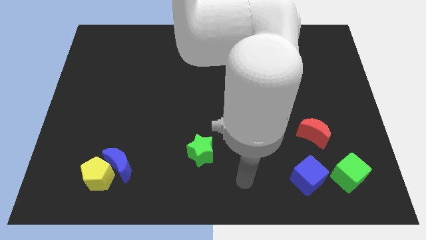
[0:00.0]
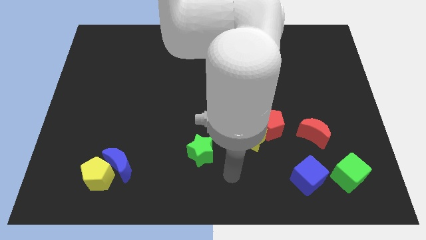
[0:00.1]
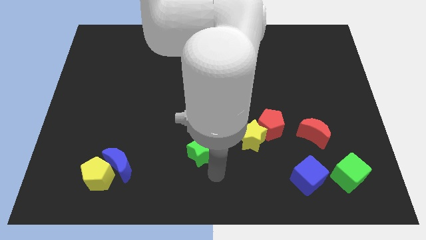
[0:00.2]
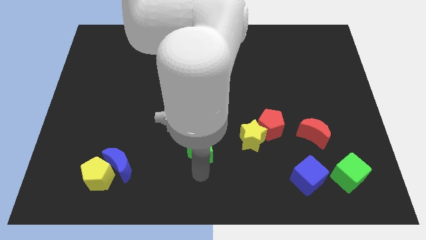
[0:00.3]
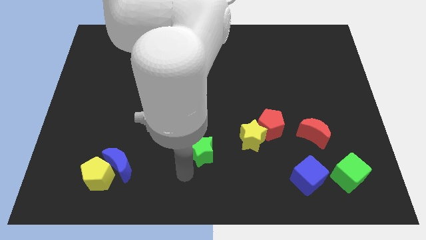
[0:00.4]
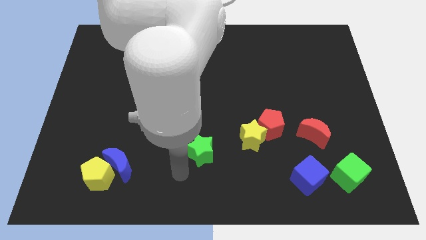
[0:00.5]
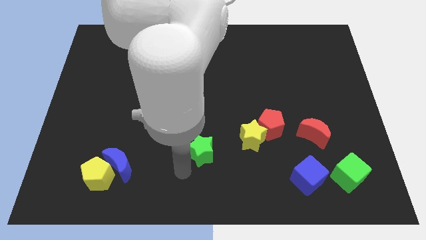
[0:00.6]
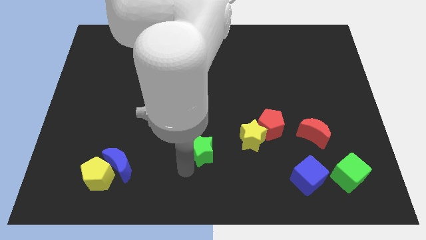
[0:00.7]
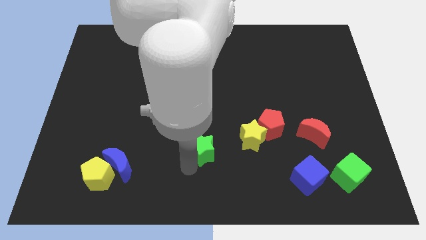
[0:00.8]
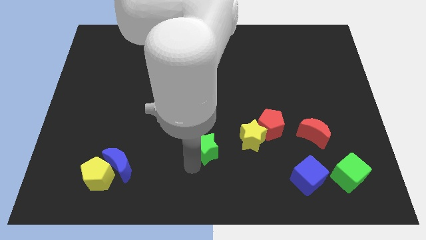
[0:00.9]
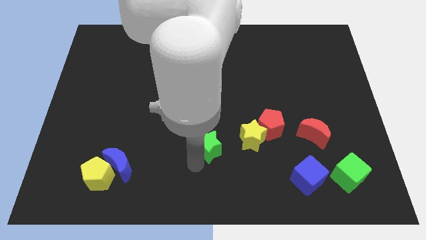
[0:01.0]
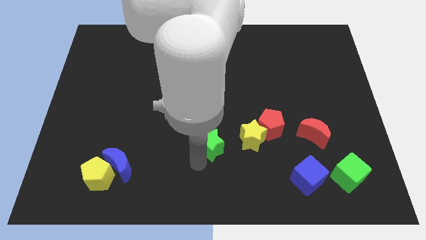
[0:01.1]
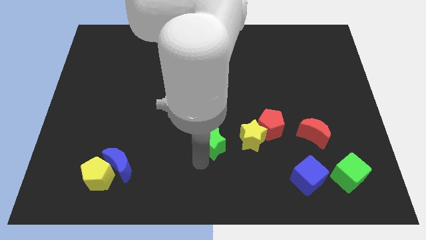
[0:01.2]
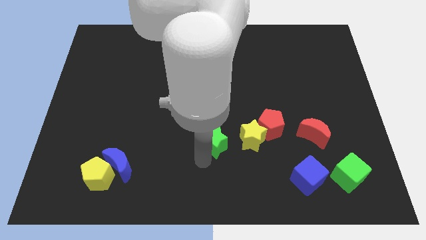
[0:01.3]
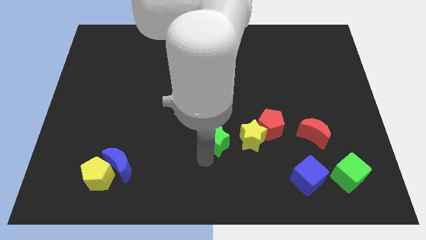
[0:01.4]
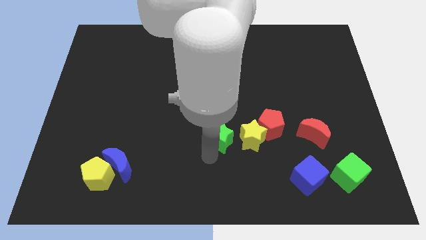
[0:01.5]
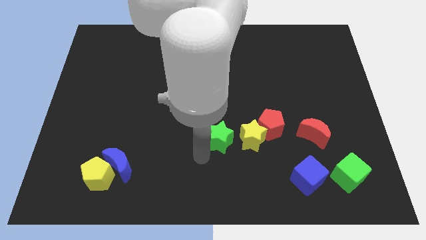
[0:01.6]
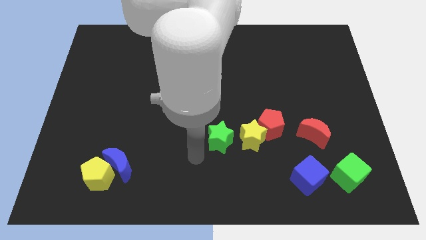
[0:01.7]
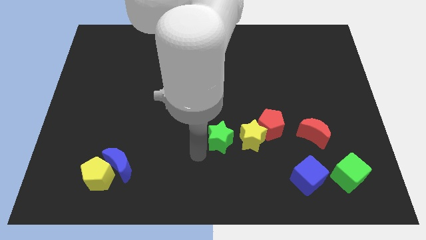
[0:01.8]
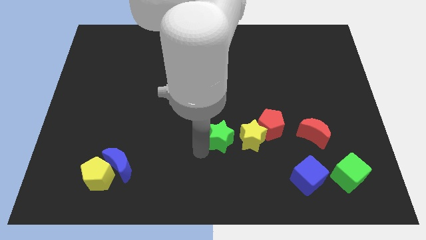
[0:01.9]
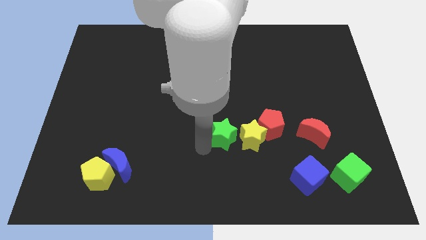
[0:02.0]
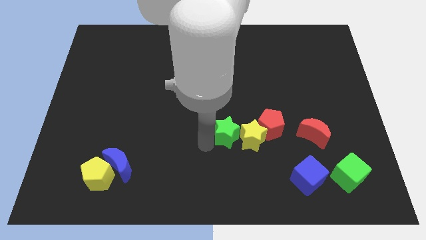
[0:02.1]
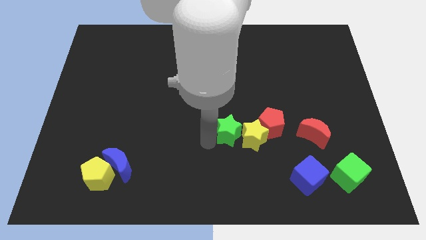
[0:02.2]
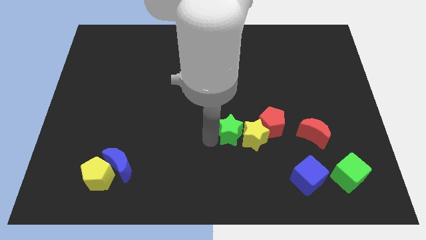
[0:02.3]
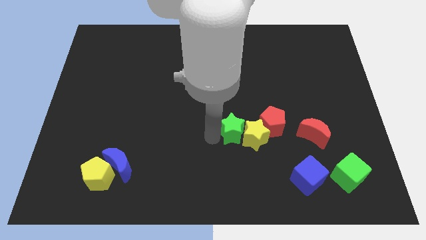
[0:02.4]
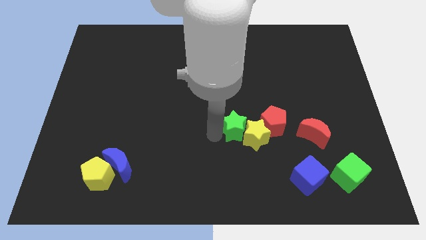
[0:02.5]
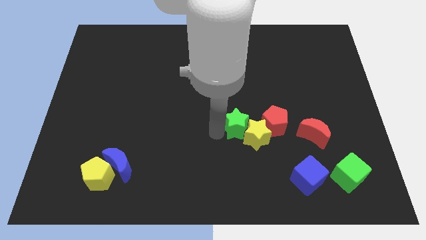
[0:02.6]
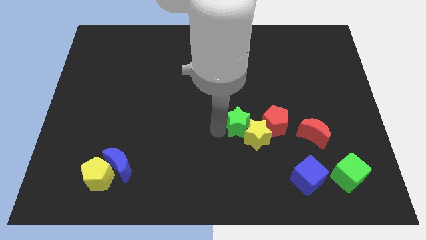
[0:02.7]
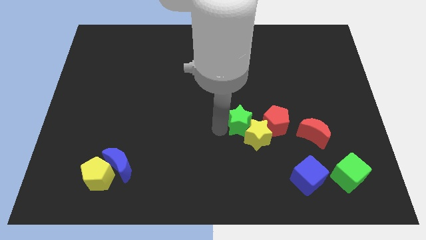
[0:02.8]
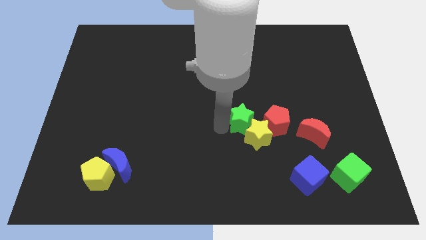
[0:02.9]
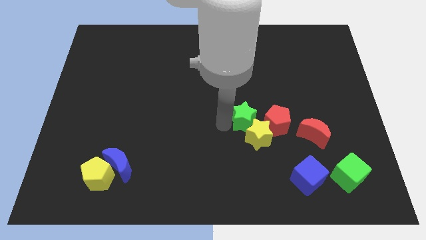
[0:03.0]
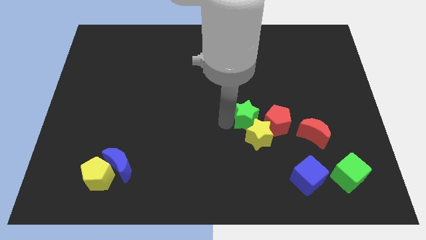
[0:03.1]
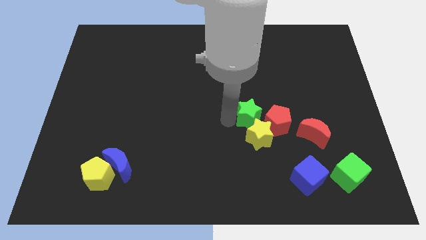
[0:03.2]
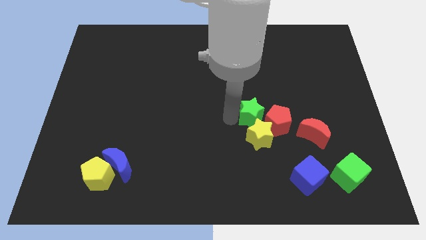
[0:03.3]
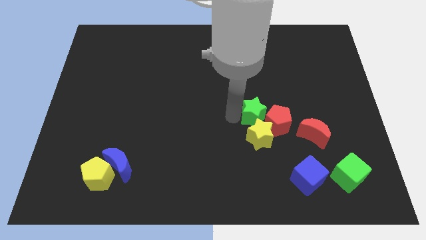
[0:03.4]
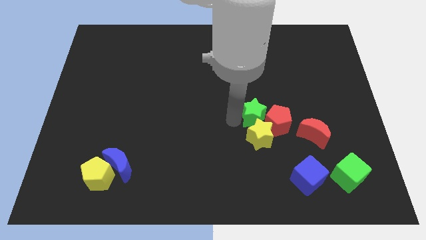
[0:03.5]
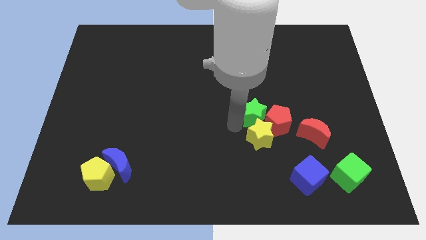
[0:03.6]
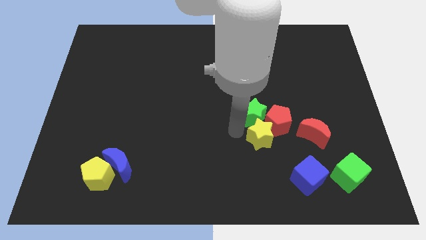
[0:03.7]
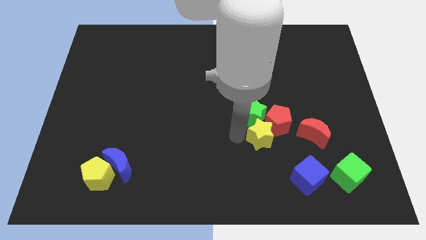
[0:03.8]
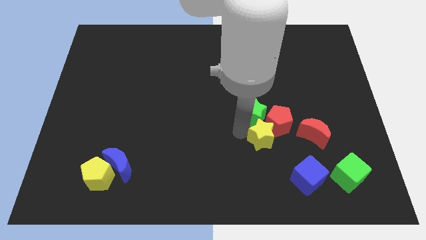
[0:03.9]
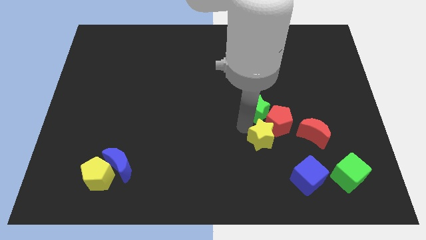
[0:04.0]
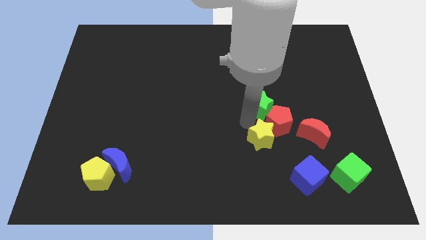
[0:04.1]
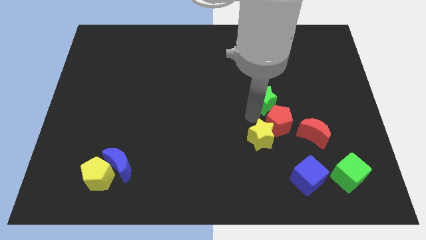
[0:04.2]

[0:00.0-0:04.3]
move the green star upwards and then right

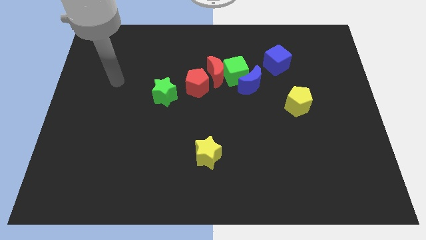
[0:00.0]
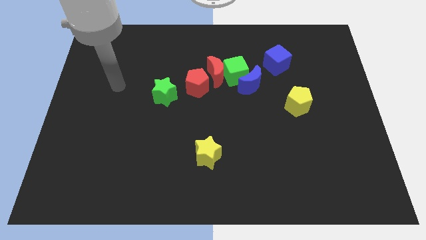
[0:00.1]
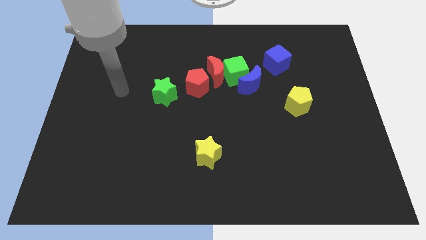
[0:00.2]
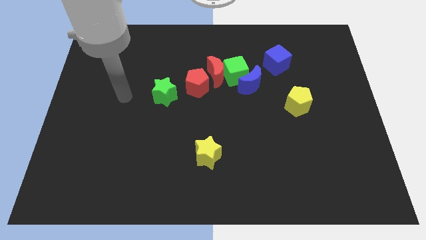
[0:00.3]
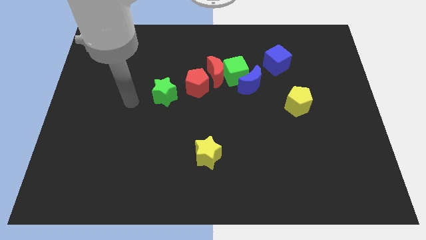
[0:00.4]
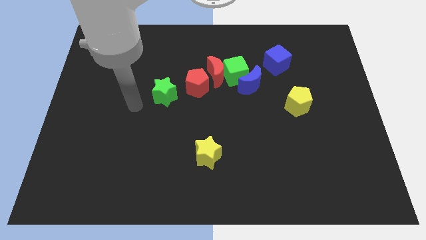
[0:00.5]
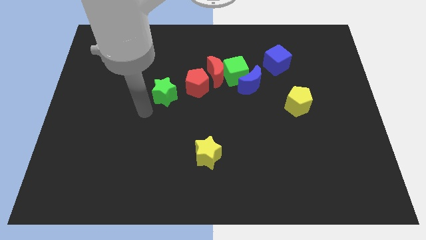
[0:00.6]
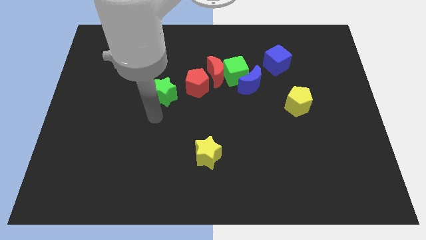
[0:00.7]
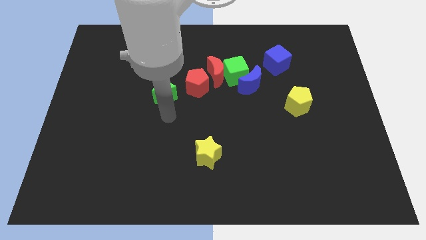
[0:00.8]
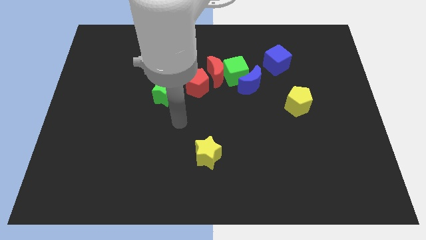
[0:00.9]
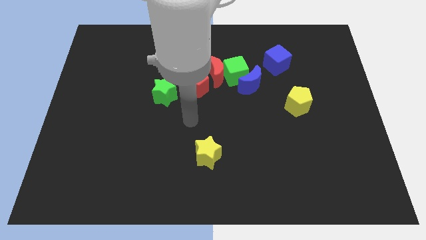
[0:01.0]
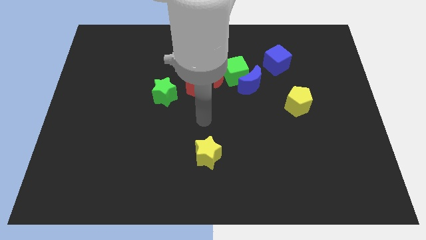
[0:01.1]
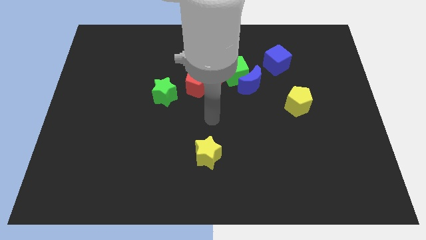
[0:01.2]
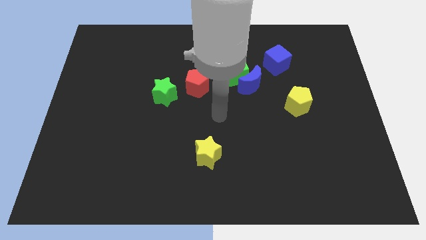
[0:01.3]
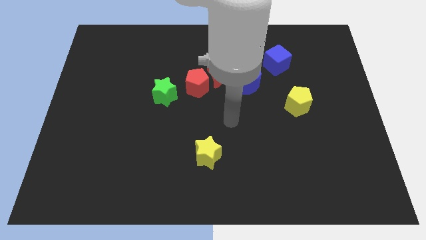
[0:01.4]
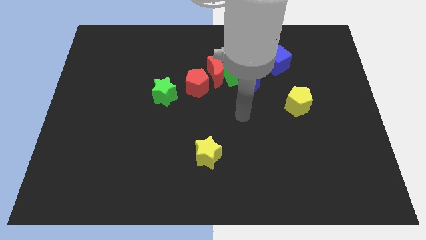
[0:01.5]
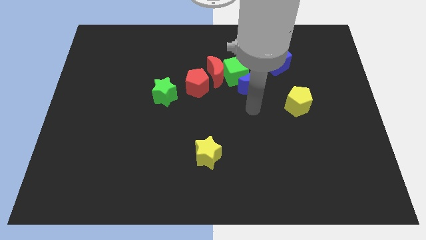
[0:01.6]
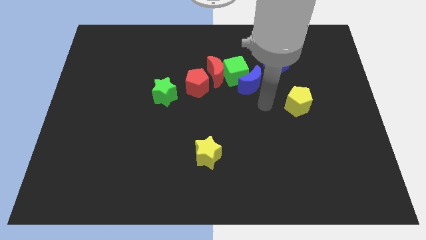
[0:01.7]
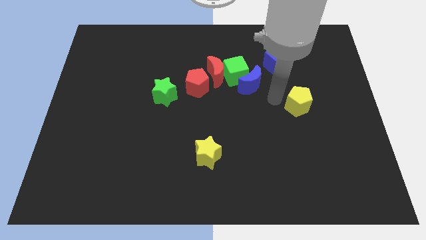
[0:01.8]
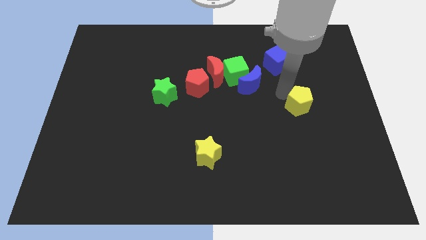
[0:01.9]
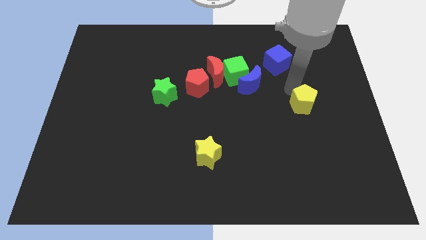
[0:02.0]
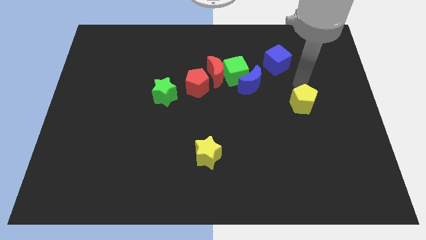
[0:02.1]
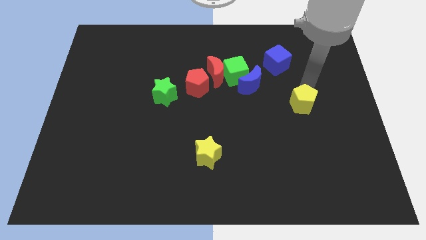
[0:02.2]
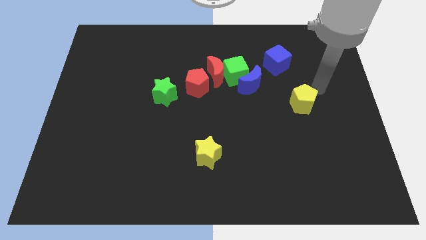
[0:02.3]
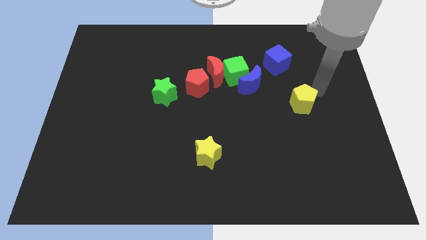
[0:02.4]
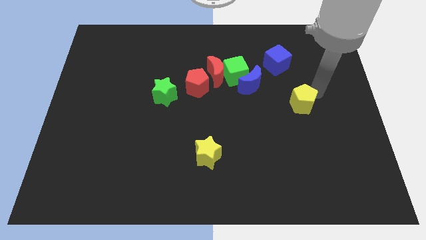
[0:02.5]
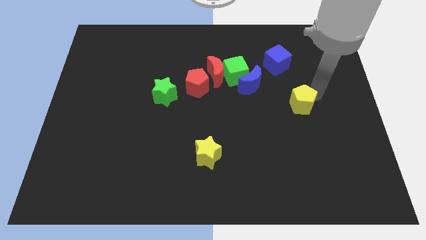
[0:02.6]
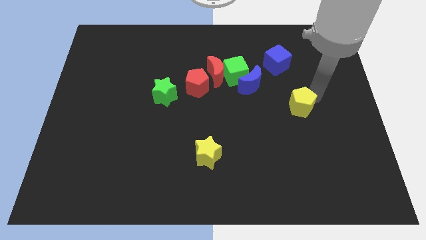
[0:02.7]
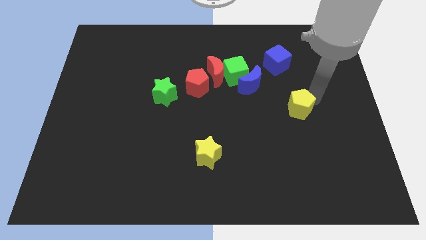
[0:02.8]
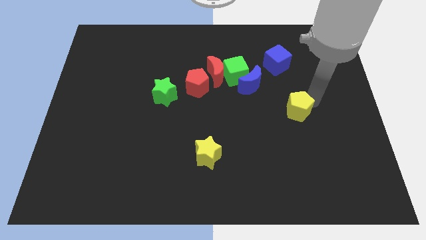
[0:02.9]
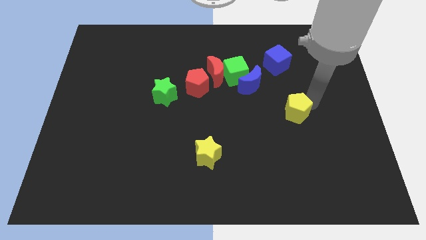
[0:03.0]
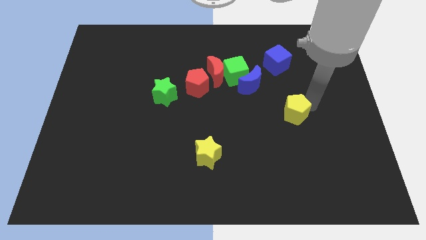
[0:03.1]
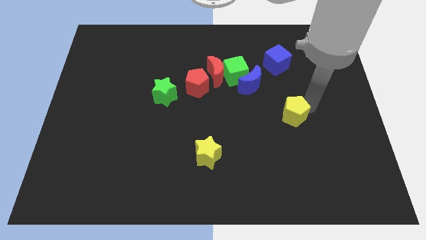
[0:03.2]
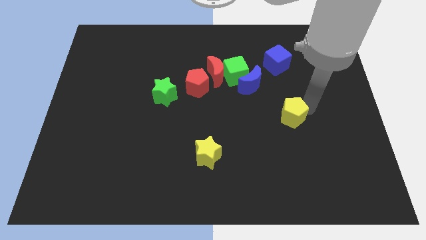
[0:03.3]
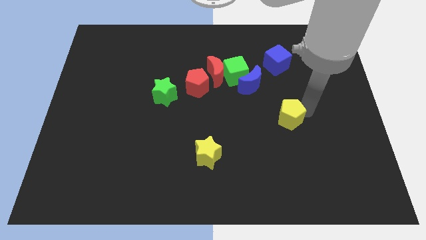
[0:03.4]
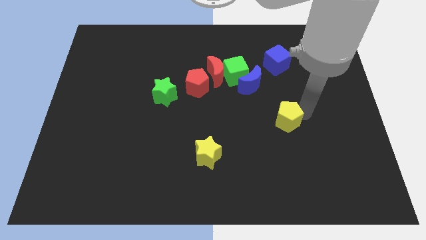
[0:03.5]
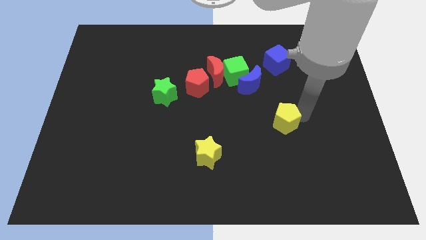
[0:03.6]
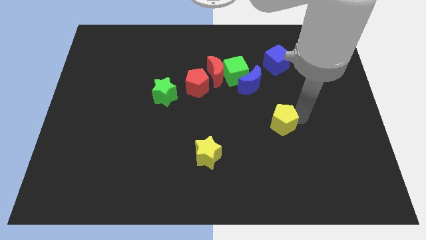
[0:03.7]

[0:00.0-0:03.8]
push the yellow pentagon down and left diagonally a bit
